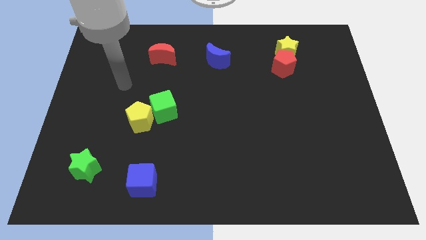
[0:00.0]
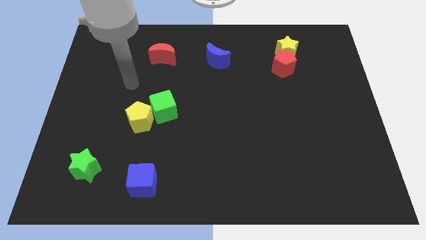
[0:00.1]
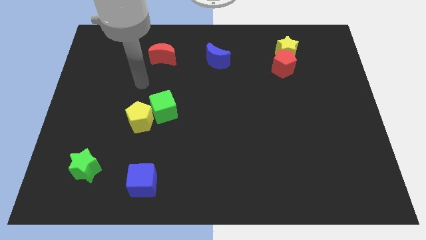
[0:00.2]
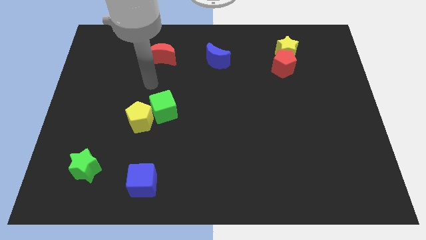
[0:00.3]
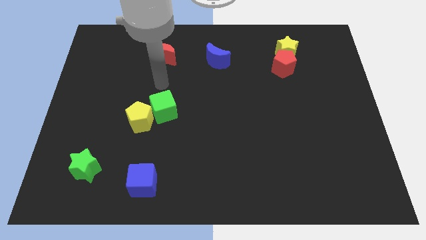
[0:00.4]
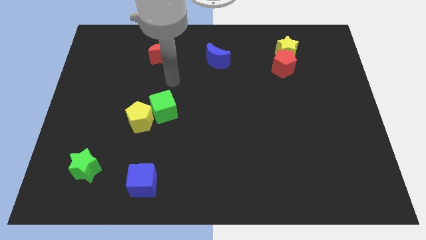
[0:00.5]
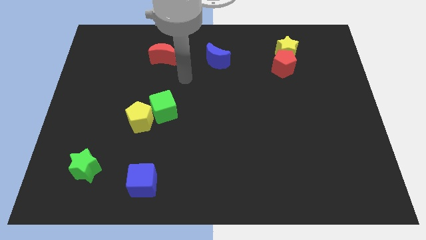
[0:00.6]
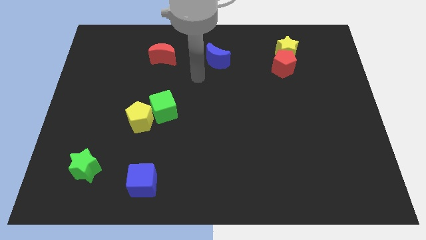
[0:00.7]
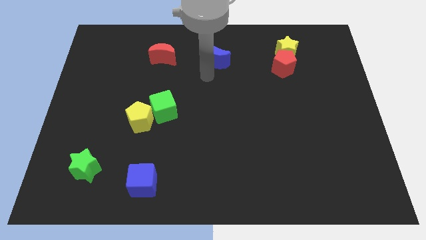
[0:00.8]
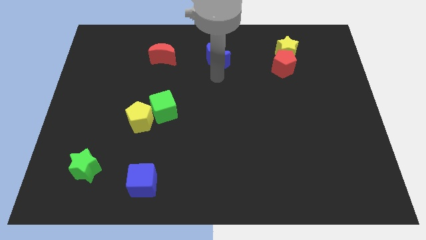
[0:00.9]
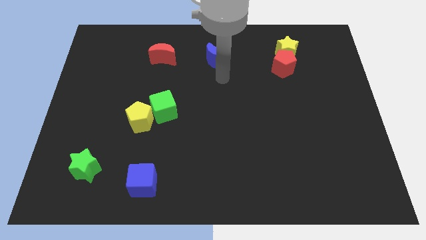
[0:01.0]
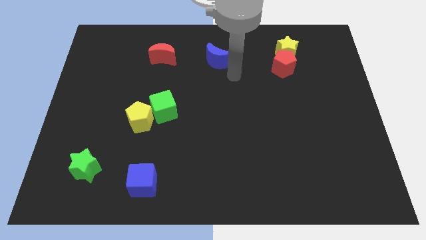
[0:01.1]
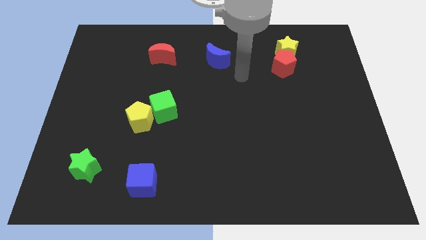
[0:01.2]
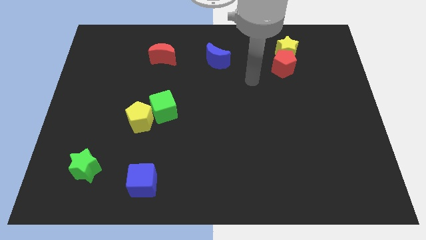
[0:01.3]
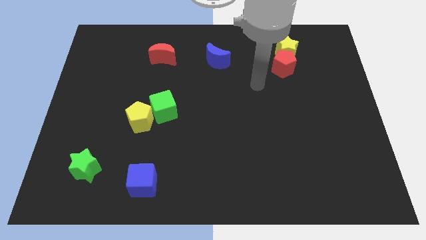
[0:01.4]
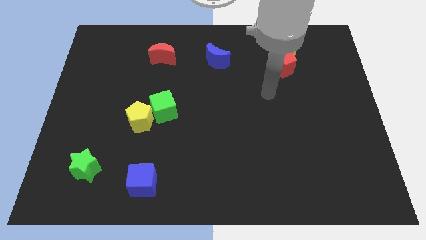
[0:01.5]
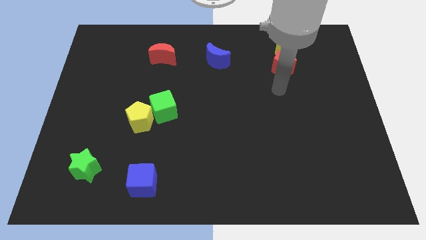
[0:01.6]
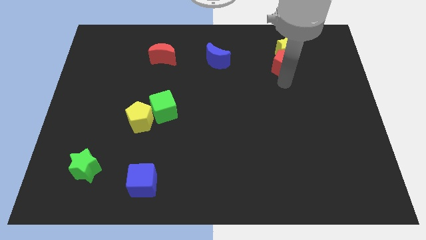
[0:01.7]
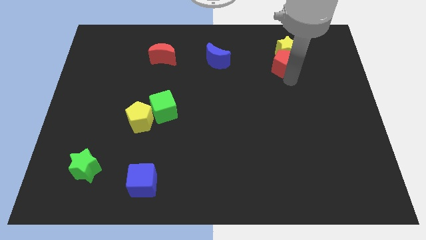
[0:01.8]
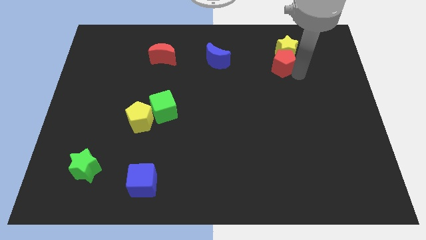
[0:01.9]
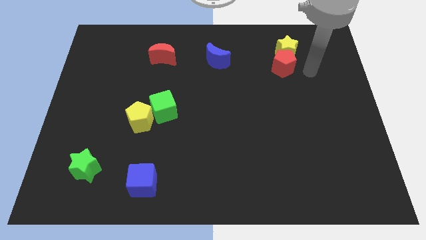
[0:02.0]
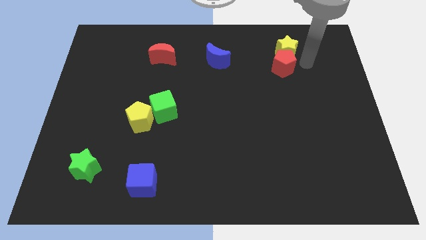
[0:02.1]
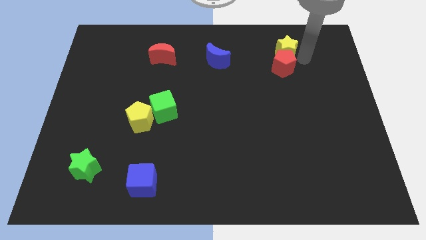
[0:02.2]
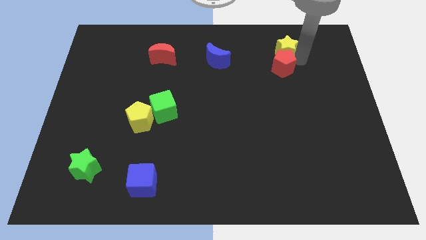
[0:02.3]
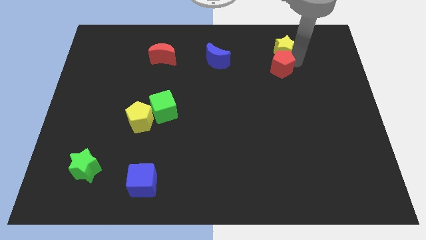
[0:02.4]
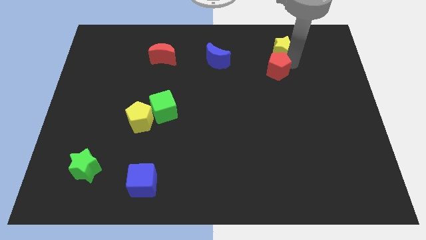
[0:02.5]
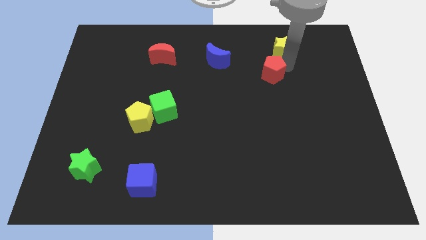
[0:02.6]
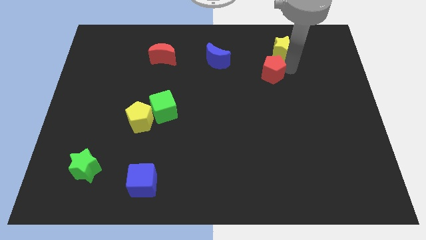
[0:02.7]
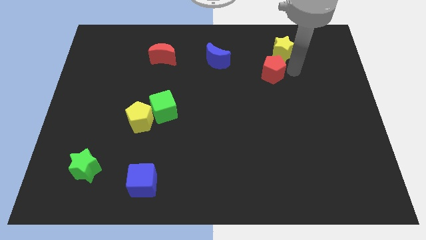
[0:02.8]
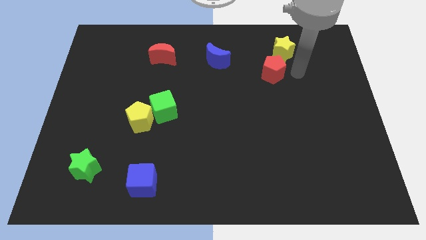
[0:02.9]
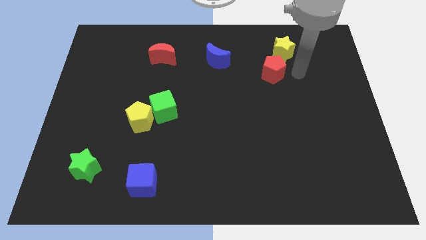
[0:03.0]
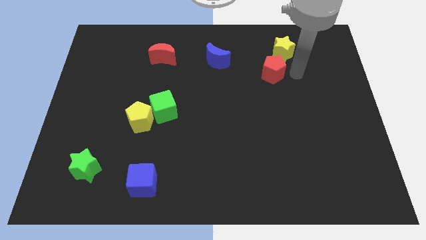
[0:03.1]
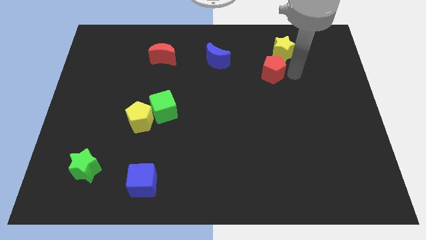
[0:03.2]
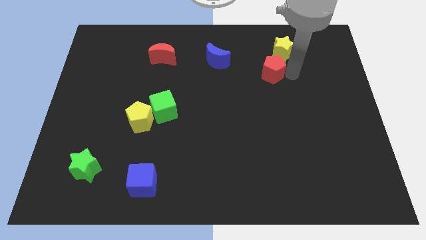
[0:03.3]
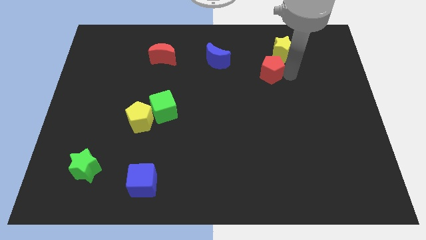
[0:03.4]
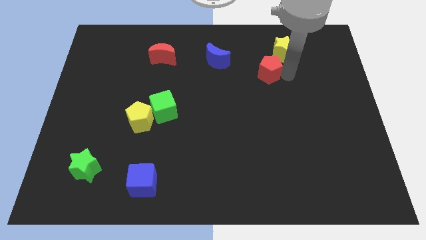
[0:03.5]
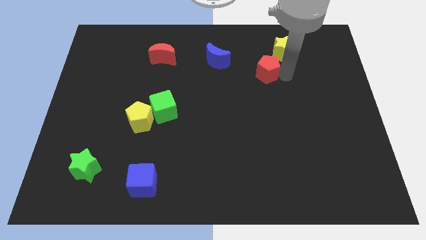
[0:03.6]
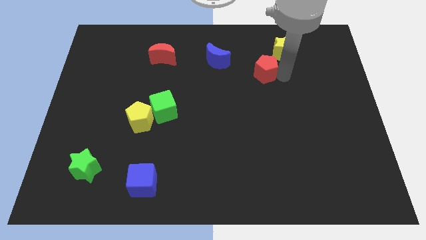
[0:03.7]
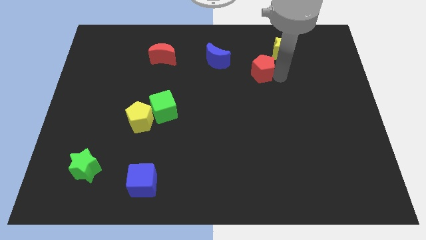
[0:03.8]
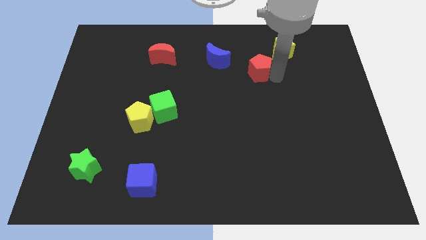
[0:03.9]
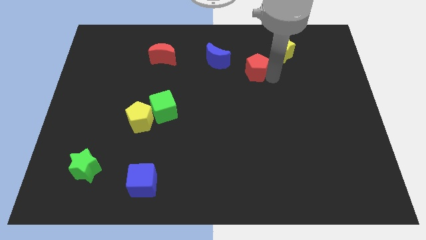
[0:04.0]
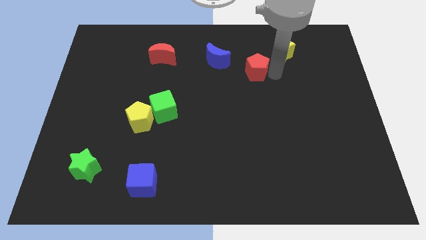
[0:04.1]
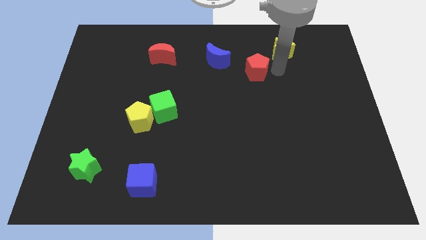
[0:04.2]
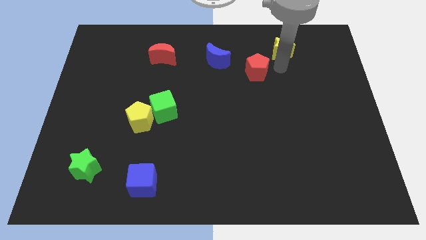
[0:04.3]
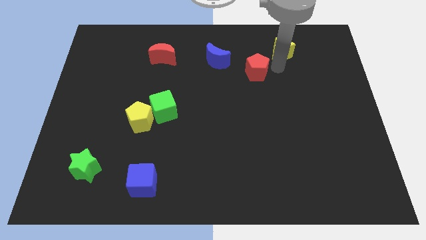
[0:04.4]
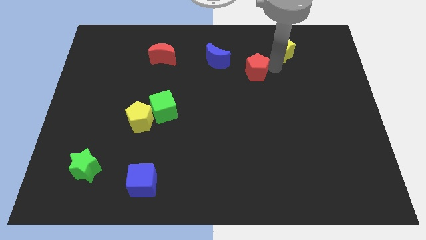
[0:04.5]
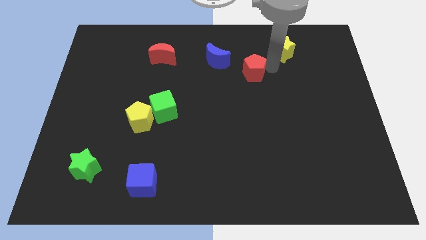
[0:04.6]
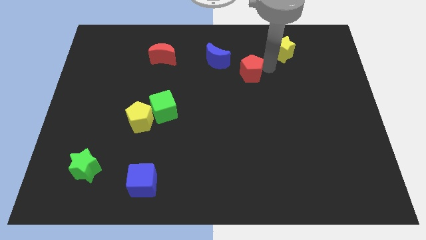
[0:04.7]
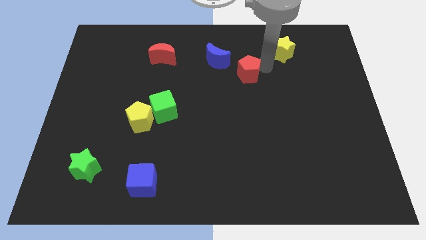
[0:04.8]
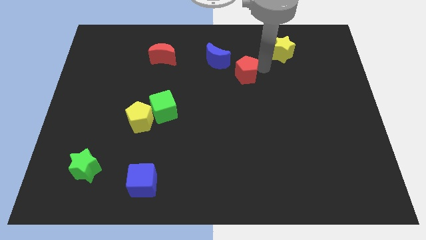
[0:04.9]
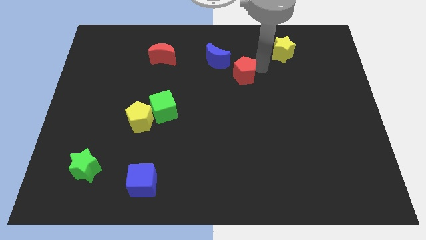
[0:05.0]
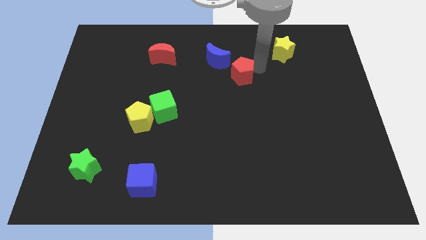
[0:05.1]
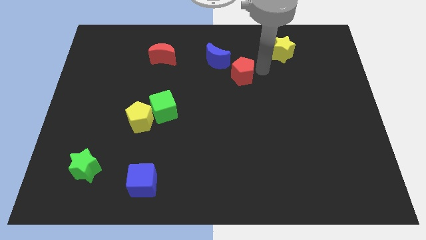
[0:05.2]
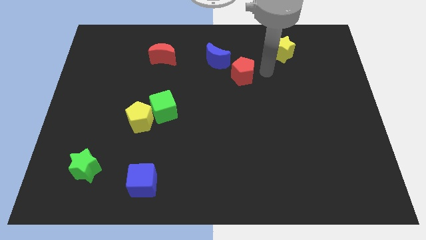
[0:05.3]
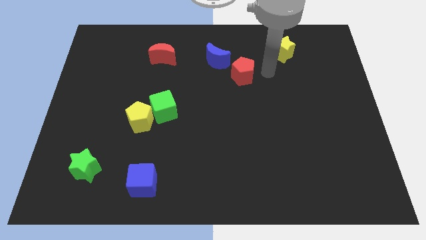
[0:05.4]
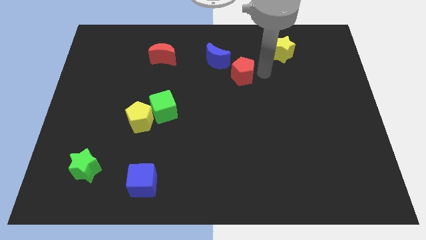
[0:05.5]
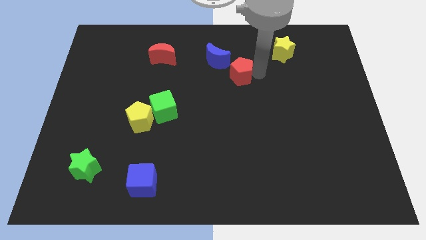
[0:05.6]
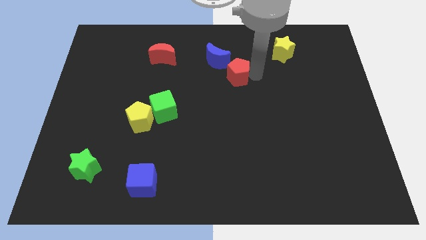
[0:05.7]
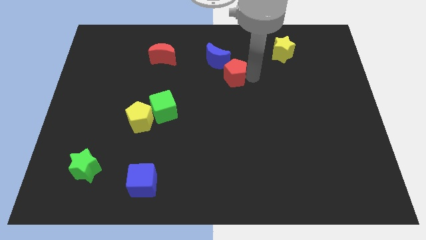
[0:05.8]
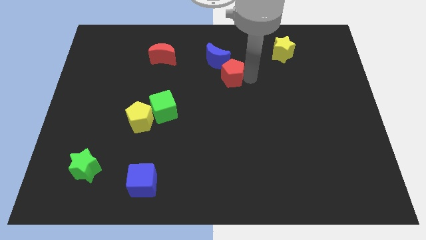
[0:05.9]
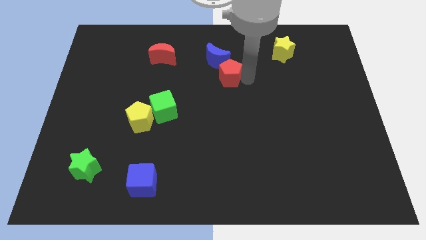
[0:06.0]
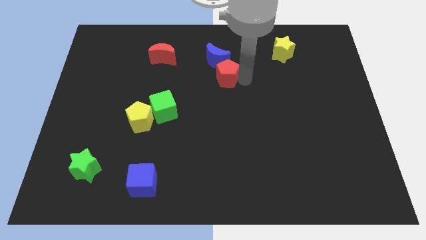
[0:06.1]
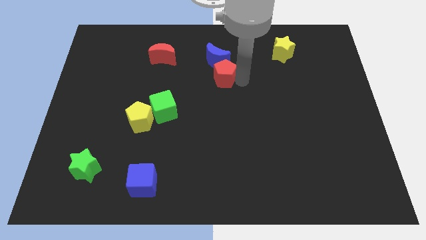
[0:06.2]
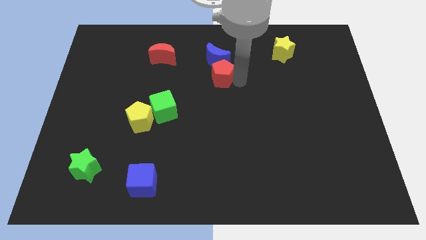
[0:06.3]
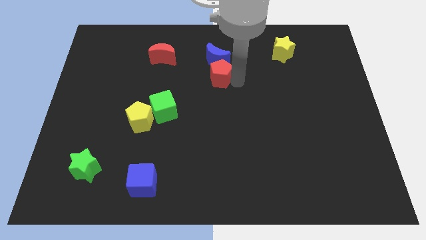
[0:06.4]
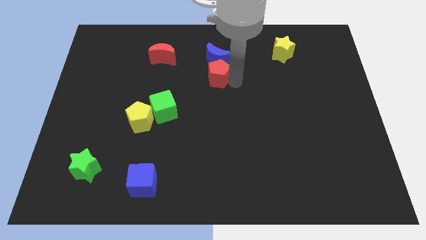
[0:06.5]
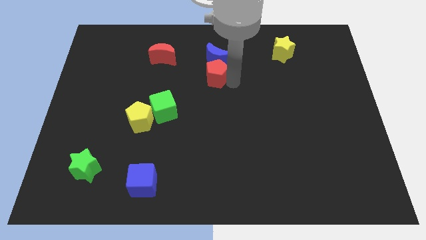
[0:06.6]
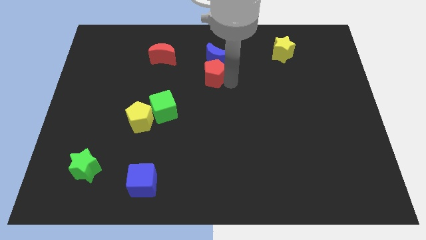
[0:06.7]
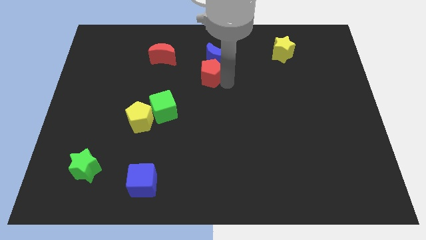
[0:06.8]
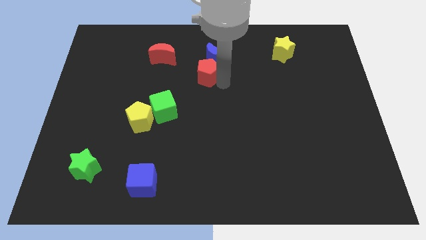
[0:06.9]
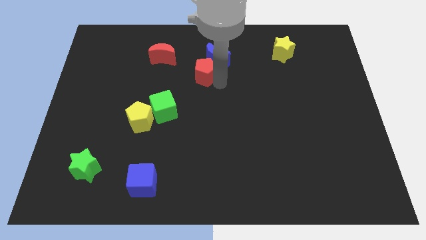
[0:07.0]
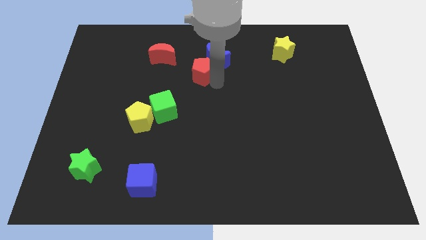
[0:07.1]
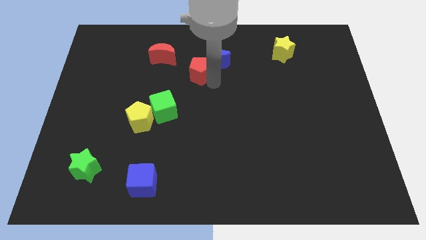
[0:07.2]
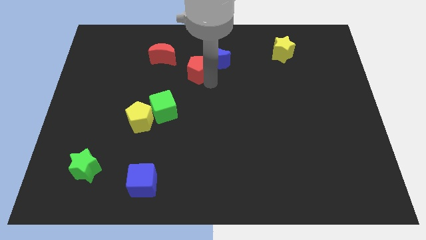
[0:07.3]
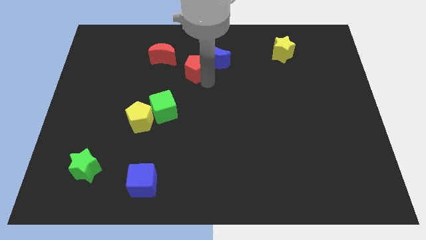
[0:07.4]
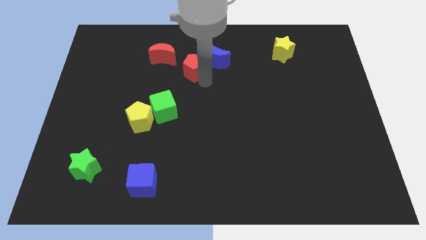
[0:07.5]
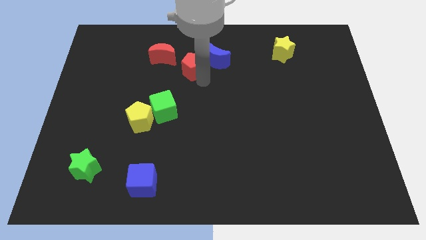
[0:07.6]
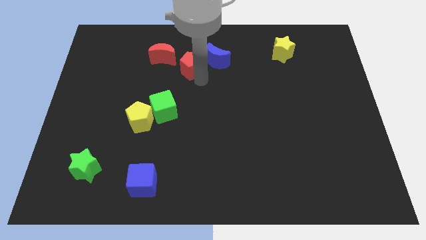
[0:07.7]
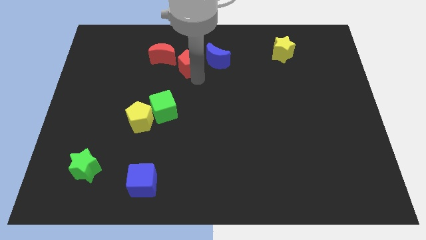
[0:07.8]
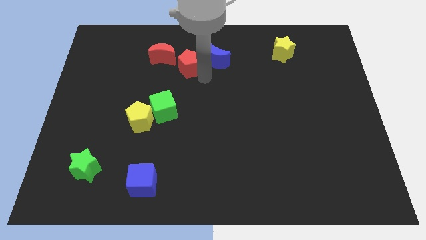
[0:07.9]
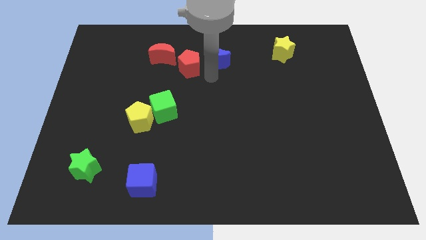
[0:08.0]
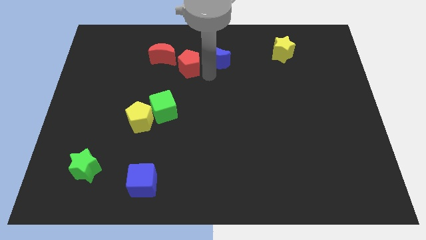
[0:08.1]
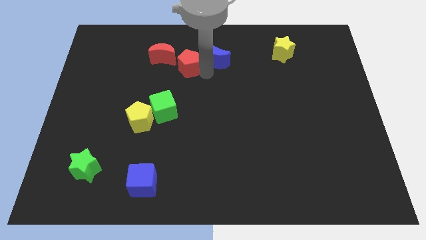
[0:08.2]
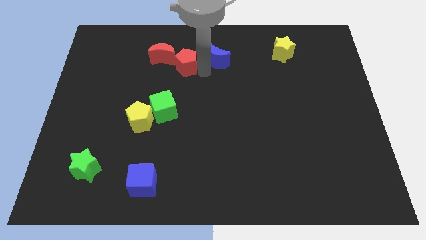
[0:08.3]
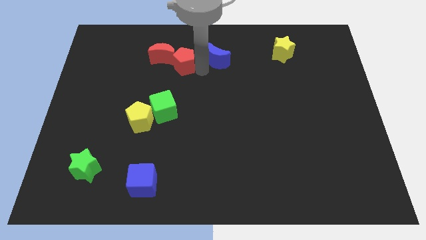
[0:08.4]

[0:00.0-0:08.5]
move the red pentagon to the red moon
